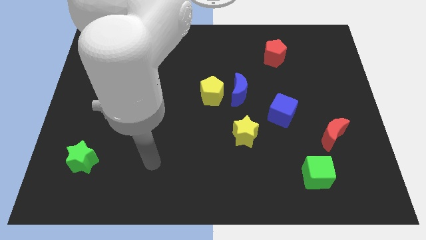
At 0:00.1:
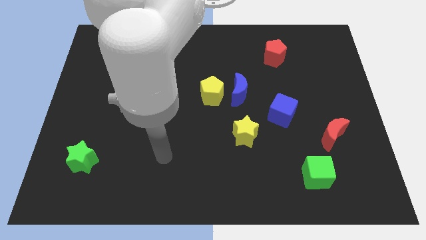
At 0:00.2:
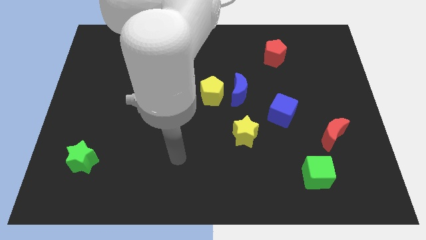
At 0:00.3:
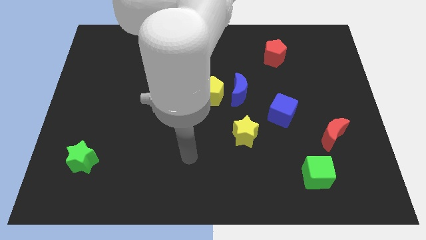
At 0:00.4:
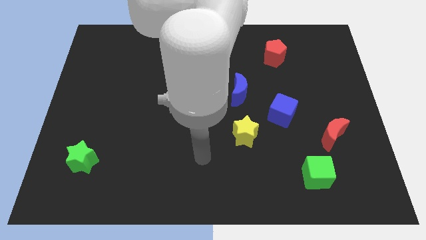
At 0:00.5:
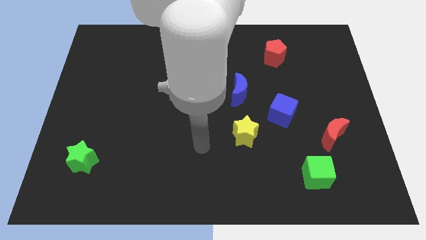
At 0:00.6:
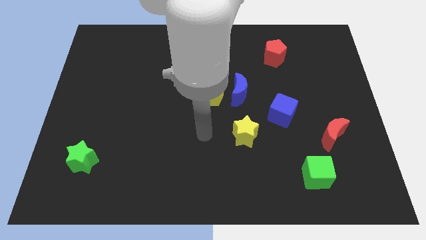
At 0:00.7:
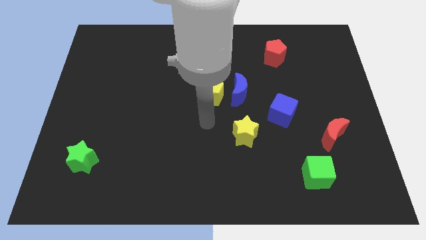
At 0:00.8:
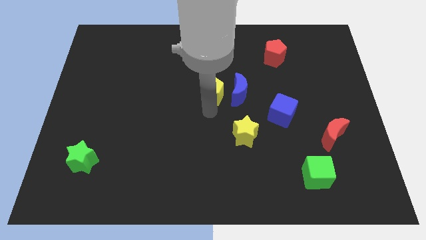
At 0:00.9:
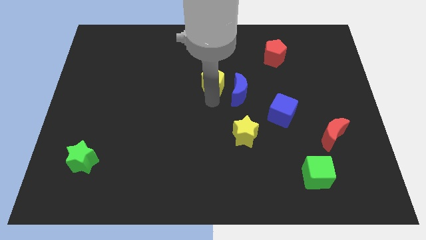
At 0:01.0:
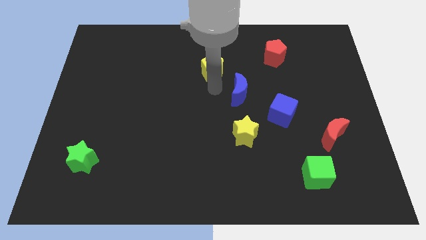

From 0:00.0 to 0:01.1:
move the blue moon away from the yellow pentagon

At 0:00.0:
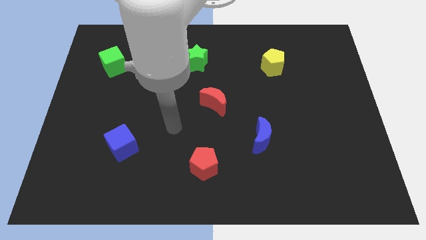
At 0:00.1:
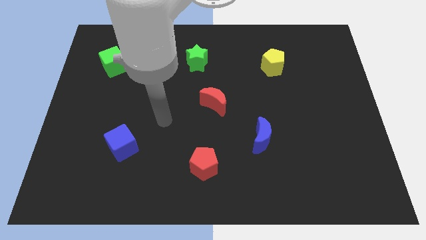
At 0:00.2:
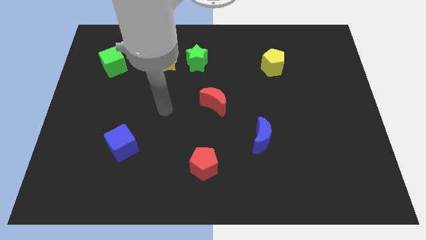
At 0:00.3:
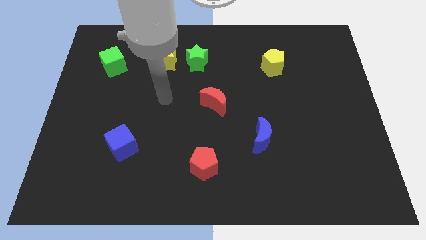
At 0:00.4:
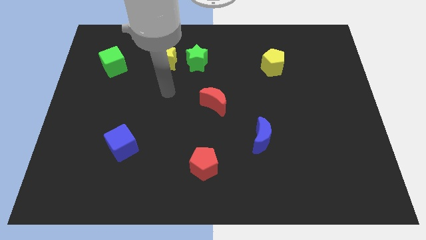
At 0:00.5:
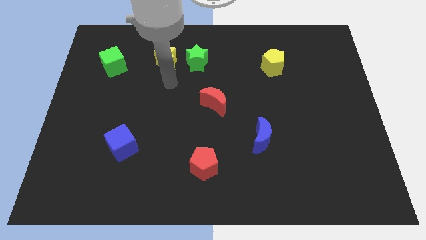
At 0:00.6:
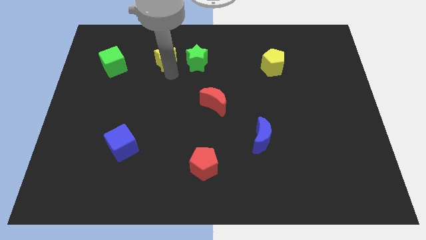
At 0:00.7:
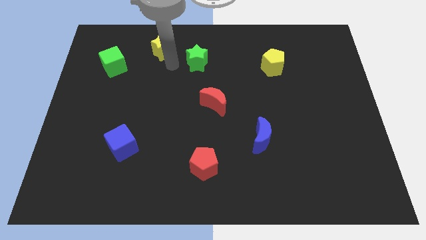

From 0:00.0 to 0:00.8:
pull the green star apart from the yellow star

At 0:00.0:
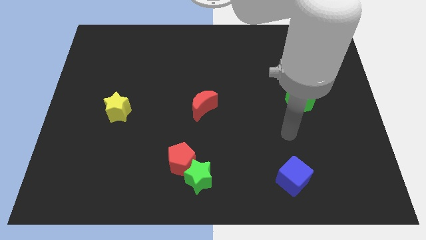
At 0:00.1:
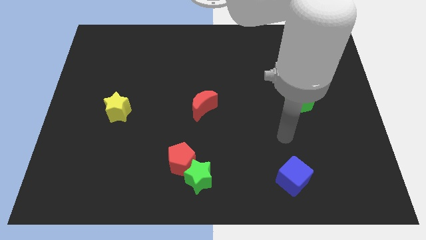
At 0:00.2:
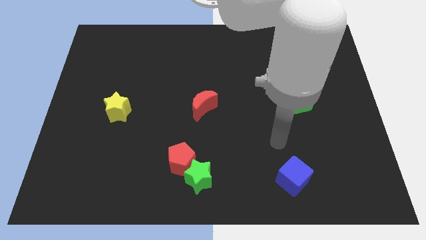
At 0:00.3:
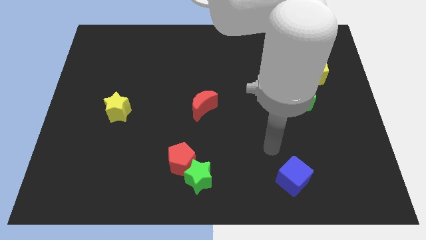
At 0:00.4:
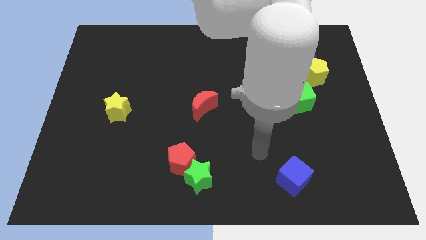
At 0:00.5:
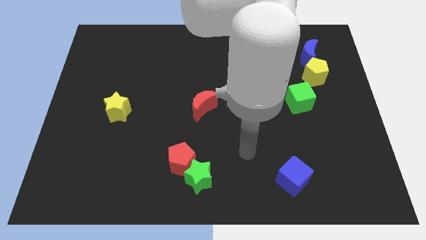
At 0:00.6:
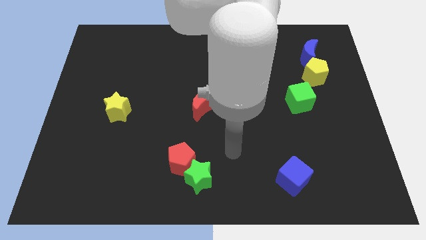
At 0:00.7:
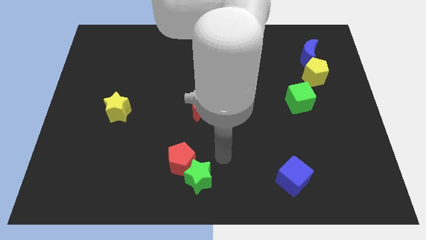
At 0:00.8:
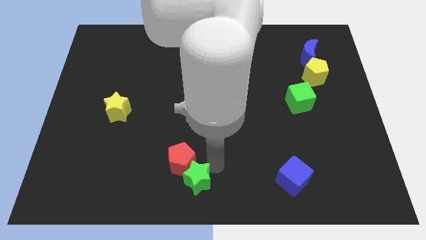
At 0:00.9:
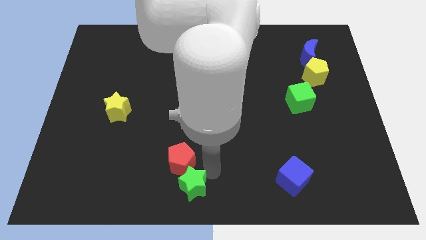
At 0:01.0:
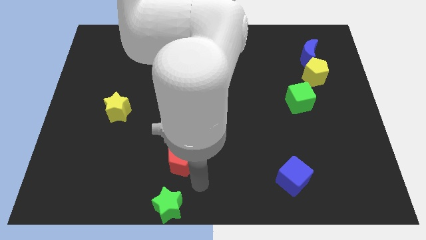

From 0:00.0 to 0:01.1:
pull the red pentagon apart from the green star

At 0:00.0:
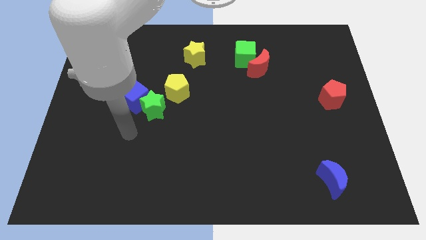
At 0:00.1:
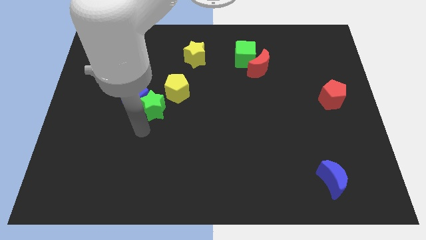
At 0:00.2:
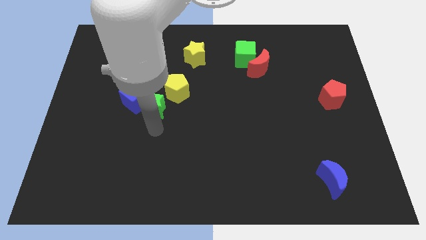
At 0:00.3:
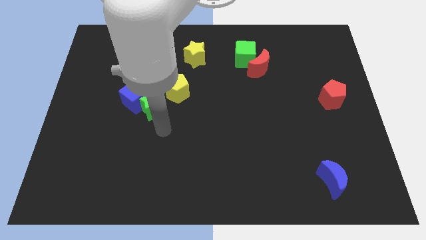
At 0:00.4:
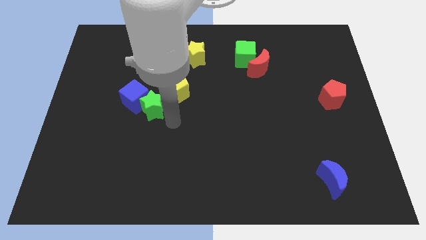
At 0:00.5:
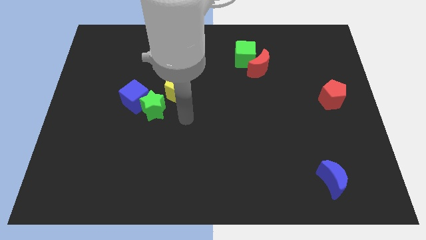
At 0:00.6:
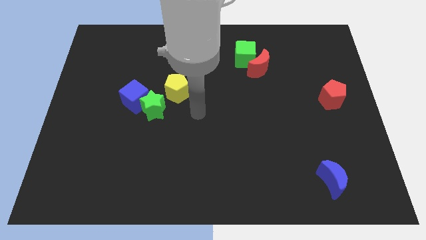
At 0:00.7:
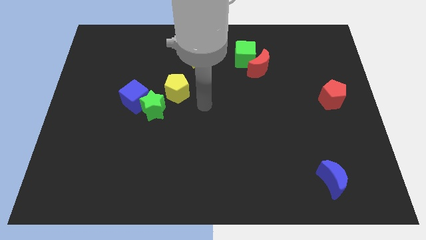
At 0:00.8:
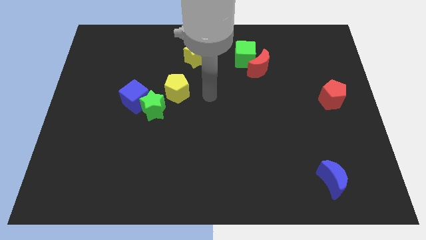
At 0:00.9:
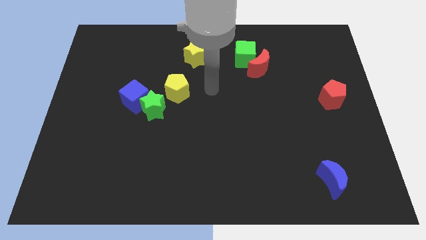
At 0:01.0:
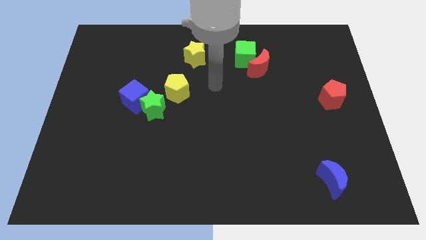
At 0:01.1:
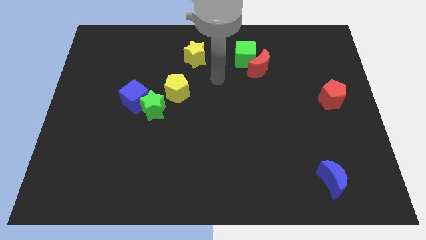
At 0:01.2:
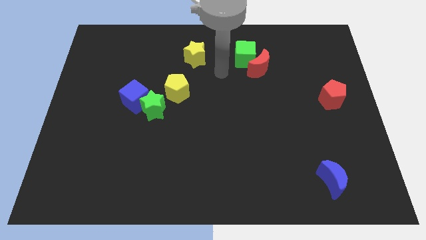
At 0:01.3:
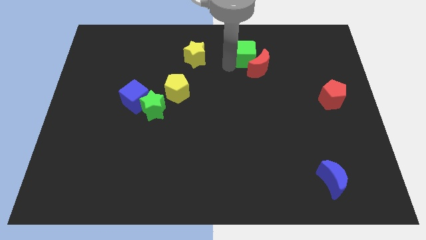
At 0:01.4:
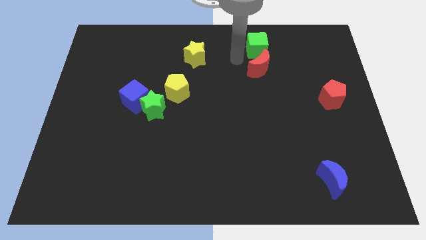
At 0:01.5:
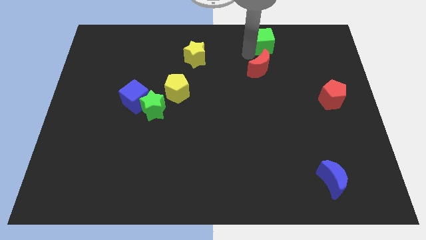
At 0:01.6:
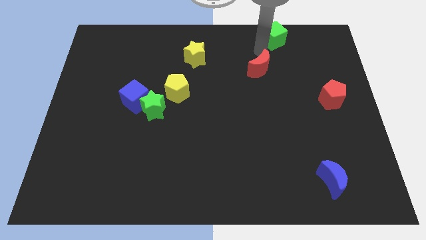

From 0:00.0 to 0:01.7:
pull the red moon apart from the green cube

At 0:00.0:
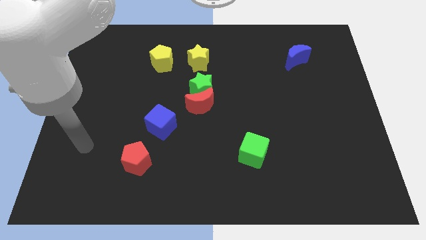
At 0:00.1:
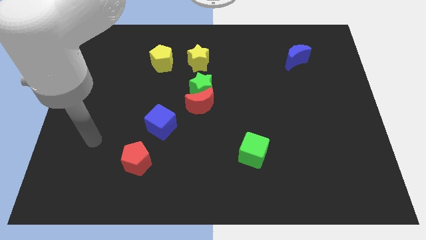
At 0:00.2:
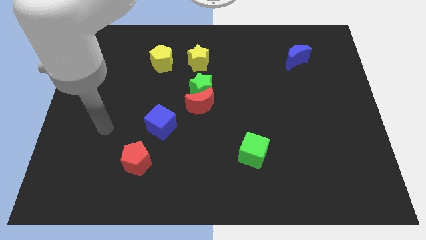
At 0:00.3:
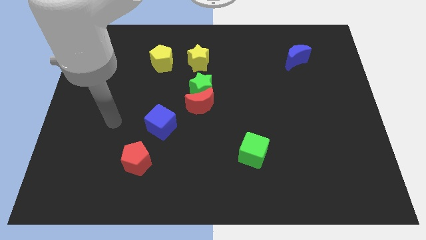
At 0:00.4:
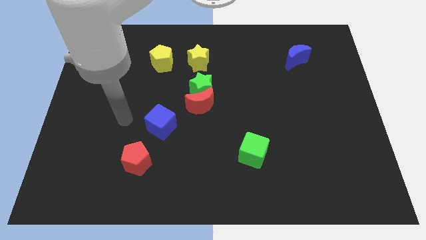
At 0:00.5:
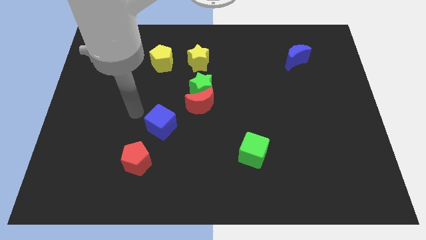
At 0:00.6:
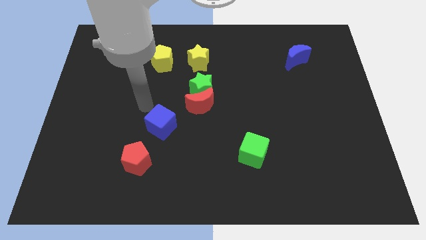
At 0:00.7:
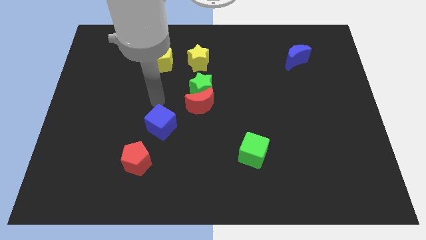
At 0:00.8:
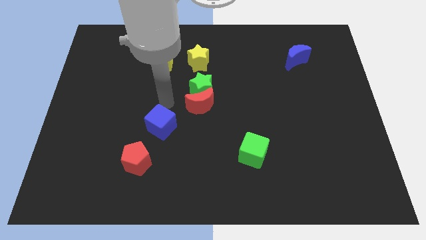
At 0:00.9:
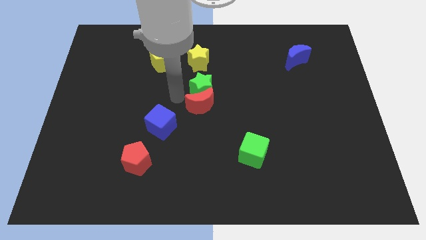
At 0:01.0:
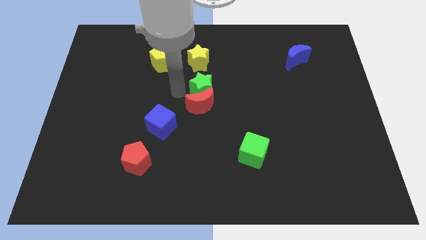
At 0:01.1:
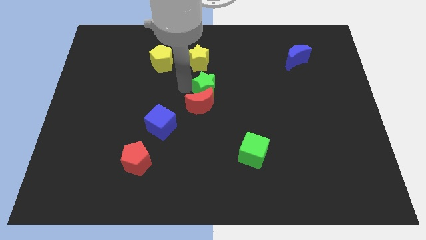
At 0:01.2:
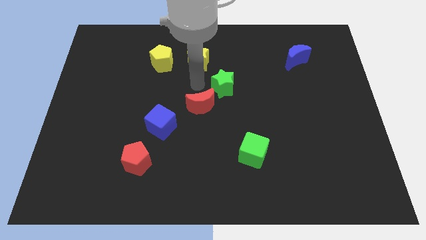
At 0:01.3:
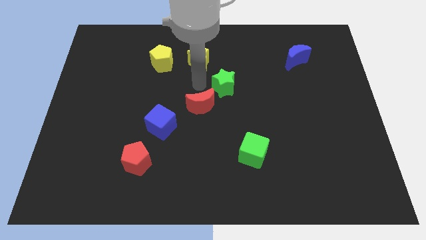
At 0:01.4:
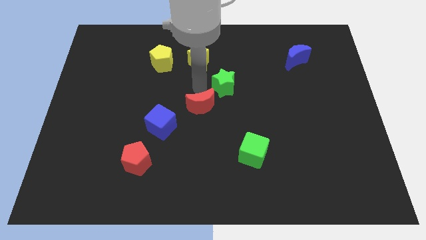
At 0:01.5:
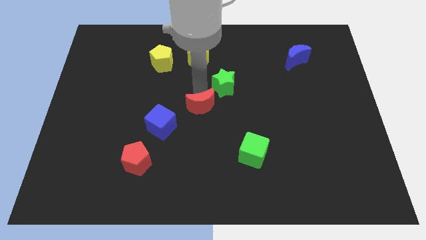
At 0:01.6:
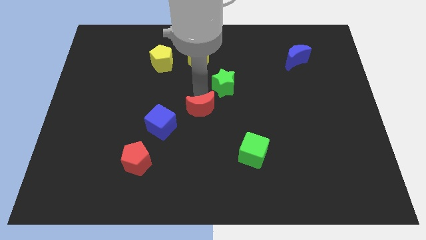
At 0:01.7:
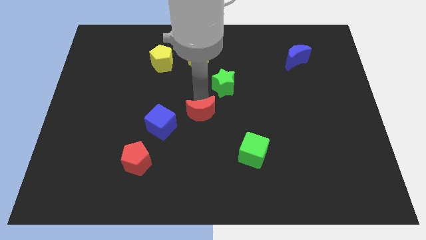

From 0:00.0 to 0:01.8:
pull the red moon apart from the green star

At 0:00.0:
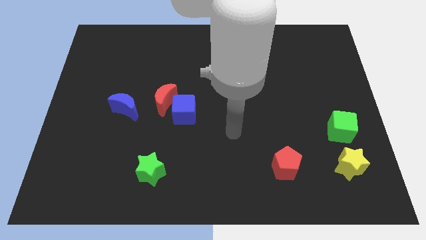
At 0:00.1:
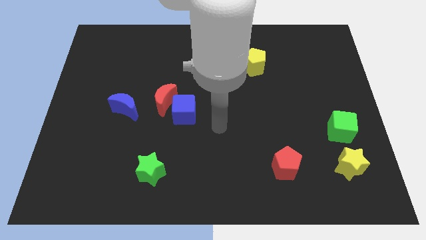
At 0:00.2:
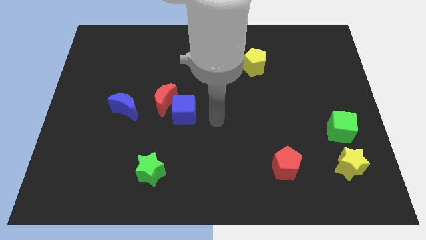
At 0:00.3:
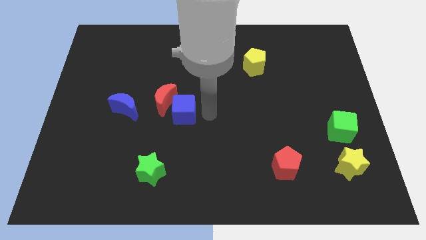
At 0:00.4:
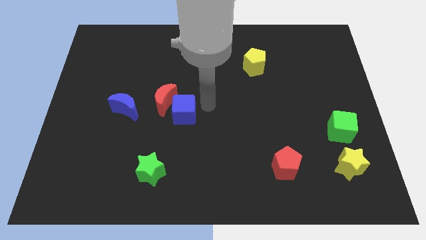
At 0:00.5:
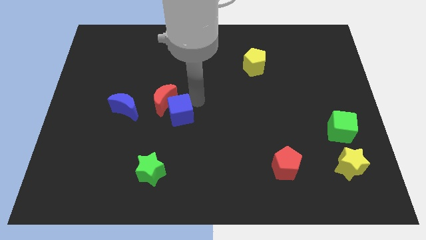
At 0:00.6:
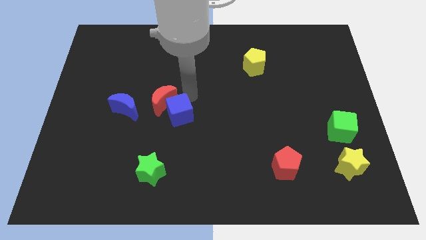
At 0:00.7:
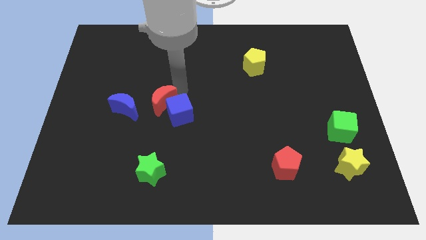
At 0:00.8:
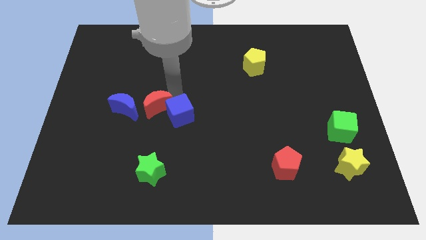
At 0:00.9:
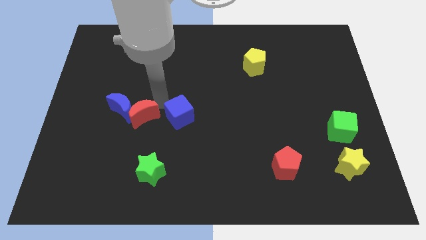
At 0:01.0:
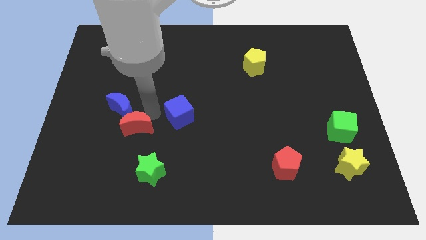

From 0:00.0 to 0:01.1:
pull the blue cube apart from the red moon

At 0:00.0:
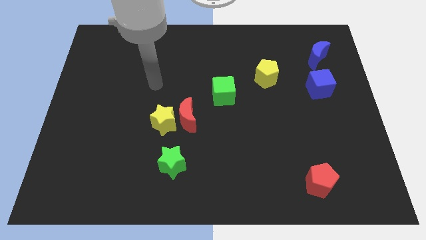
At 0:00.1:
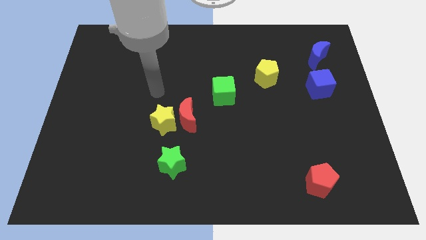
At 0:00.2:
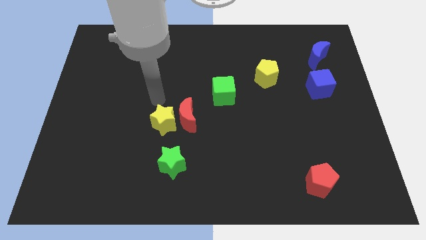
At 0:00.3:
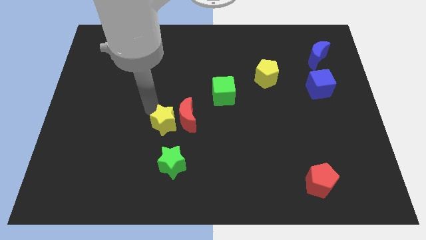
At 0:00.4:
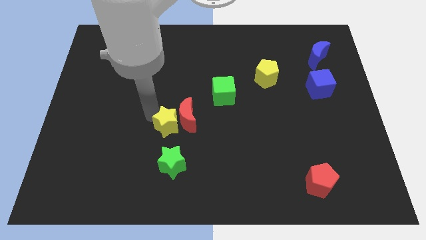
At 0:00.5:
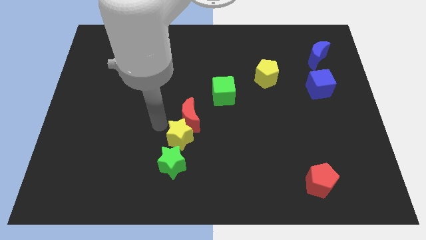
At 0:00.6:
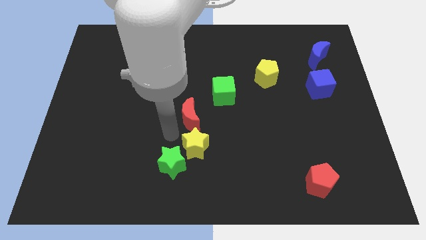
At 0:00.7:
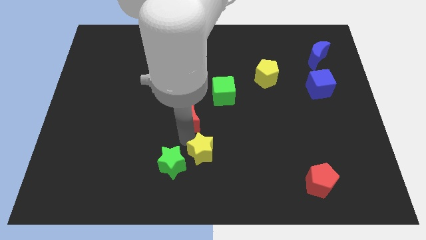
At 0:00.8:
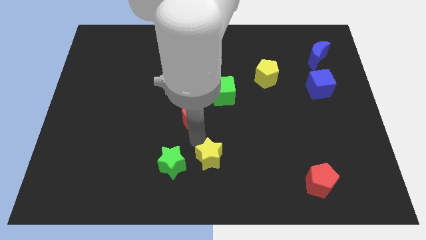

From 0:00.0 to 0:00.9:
move the red moon away from the yellow star

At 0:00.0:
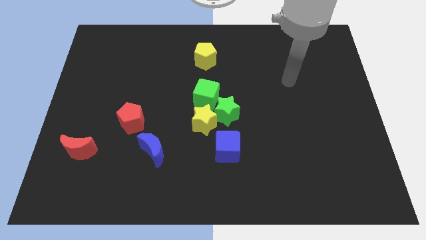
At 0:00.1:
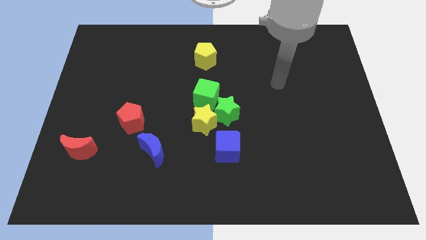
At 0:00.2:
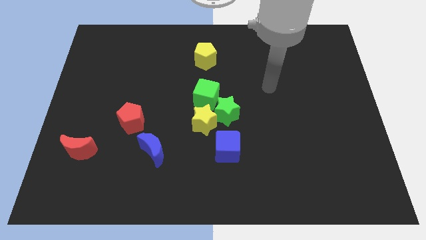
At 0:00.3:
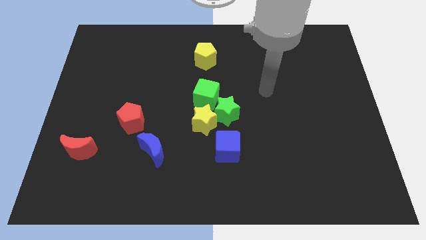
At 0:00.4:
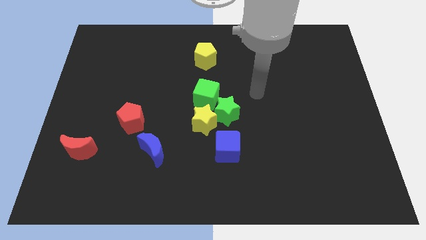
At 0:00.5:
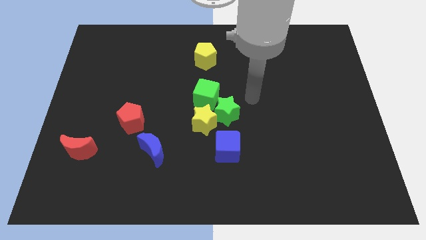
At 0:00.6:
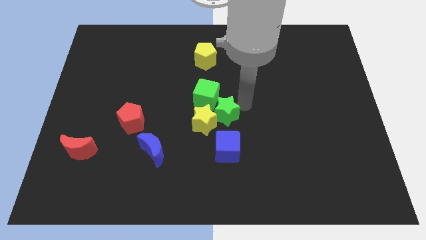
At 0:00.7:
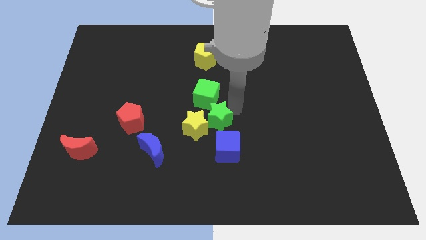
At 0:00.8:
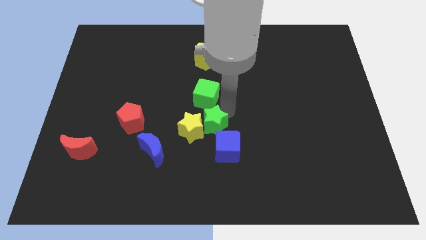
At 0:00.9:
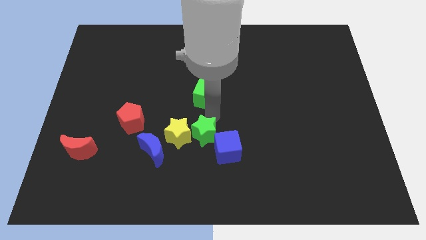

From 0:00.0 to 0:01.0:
move the green cube away from the green star and yellow star
